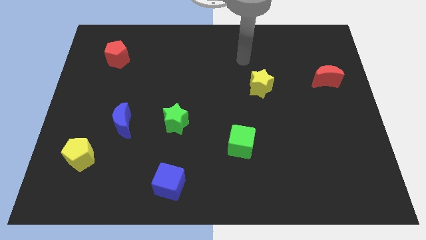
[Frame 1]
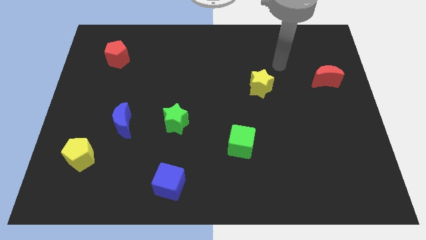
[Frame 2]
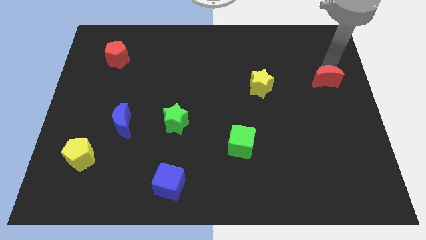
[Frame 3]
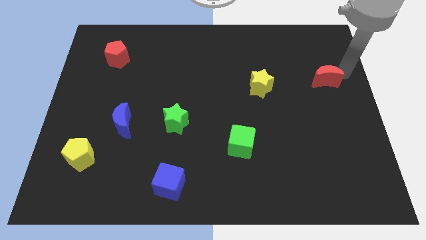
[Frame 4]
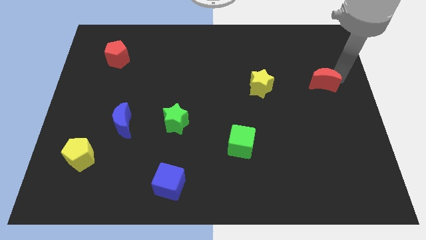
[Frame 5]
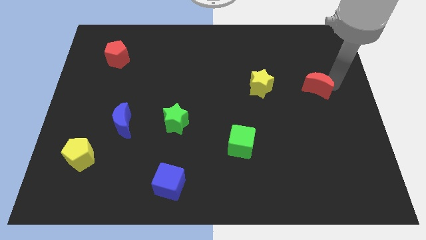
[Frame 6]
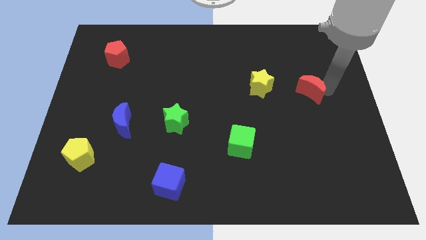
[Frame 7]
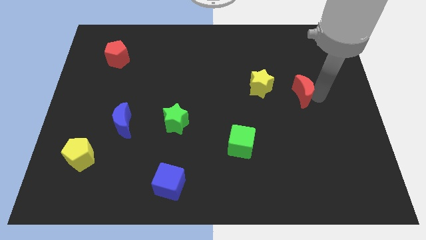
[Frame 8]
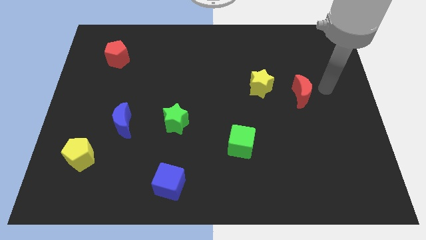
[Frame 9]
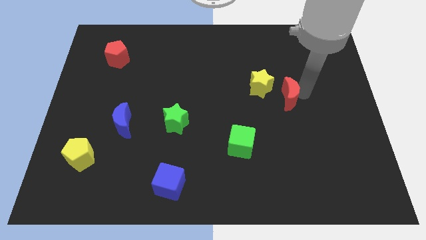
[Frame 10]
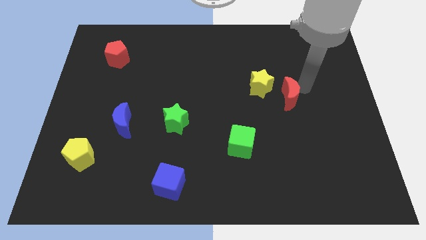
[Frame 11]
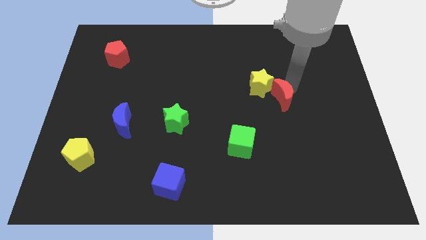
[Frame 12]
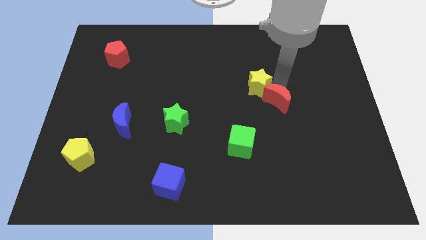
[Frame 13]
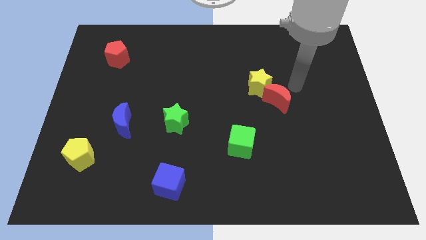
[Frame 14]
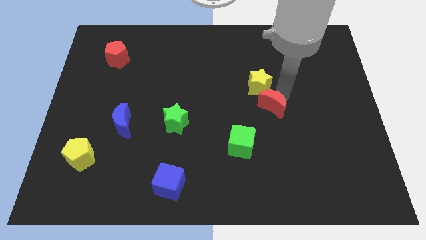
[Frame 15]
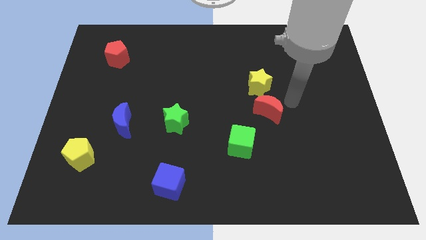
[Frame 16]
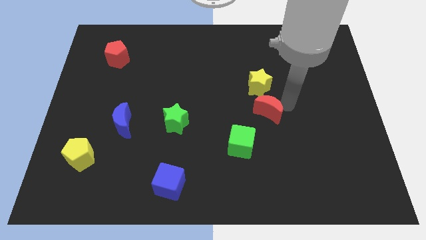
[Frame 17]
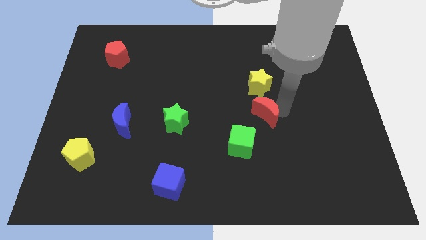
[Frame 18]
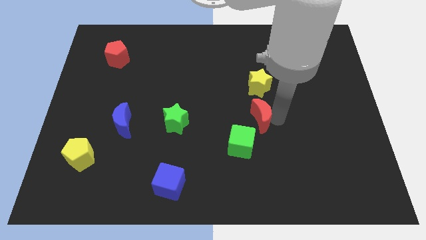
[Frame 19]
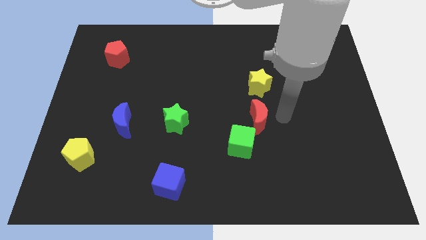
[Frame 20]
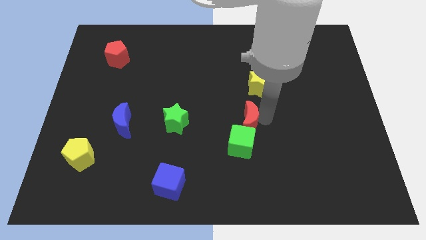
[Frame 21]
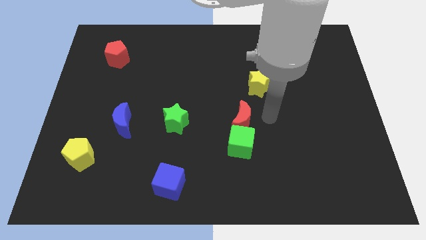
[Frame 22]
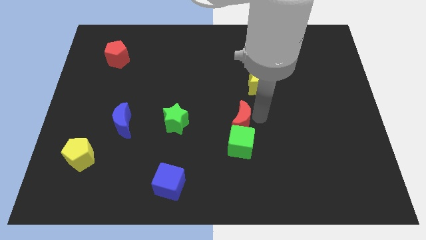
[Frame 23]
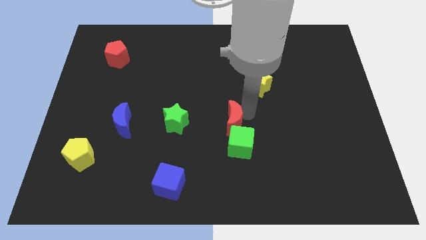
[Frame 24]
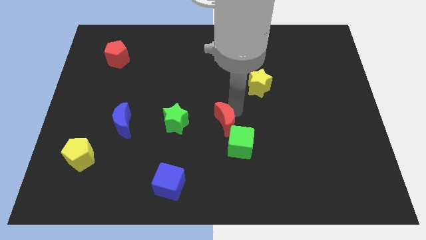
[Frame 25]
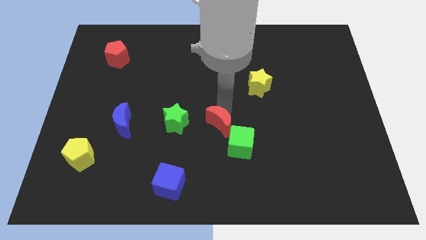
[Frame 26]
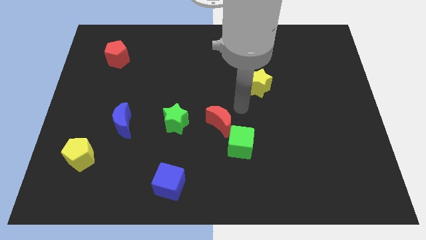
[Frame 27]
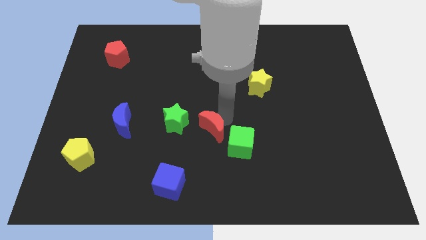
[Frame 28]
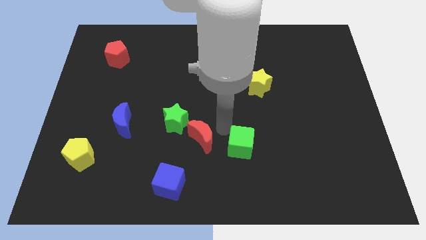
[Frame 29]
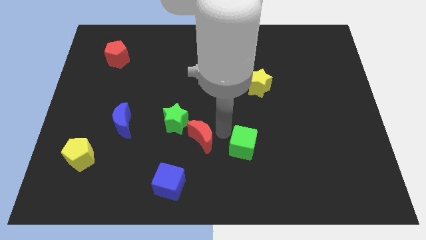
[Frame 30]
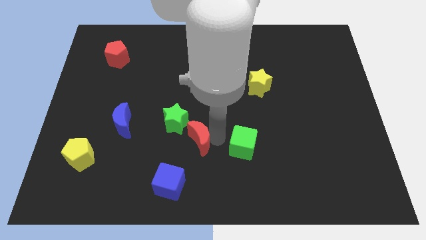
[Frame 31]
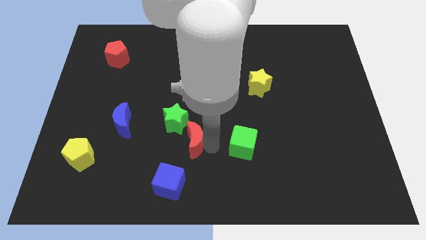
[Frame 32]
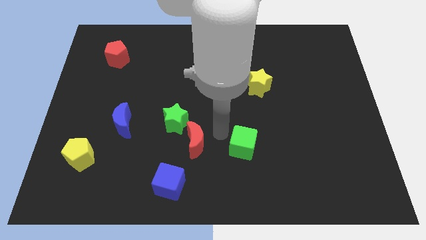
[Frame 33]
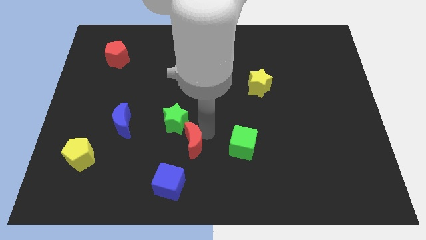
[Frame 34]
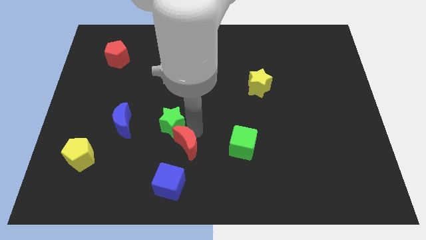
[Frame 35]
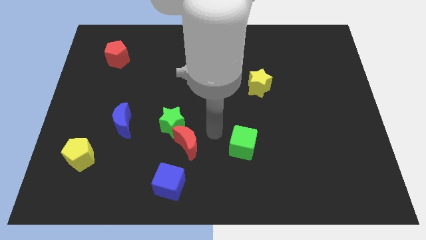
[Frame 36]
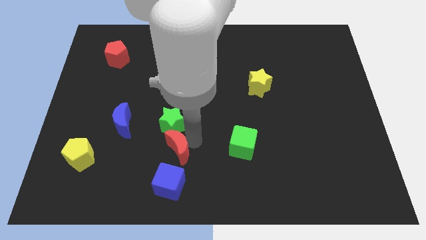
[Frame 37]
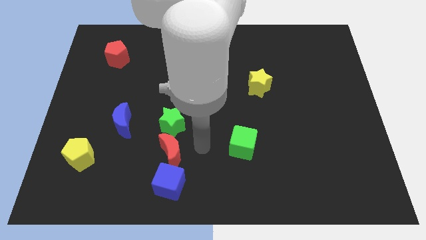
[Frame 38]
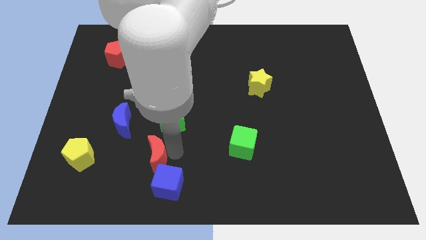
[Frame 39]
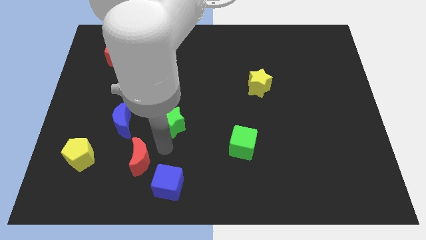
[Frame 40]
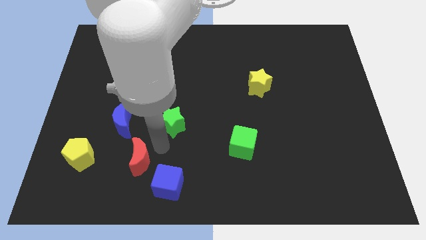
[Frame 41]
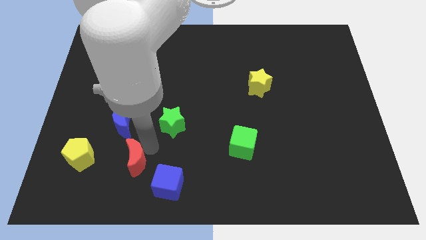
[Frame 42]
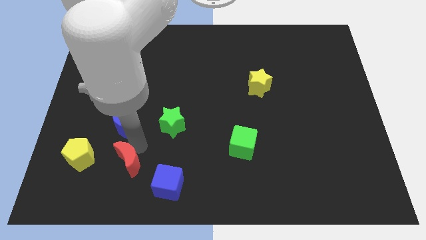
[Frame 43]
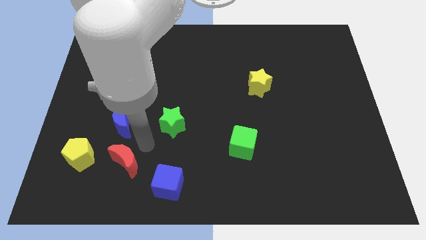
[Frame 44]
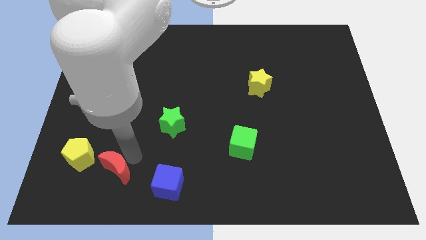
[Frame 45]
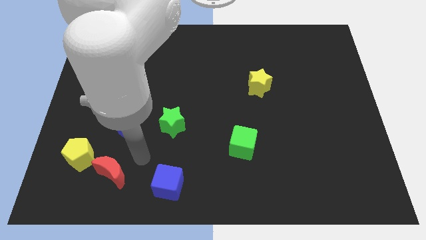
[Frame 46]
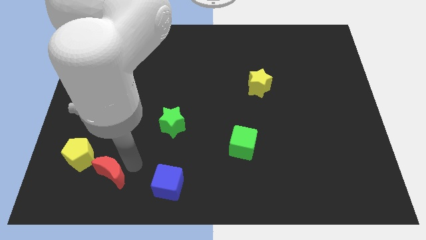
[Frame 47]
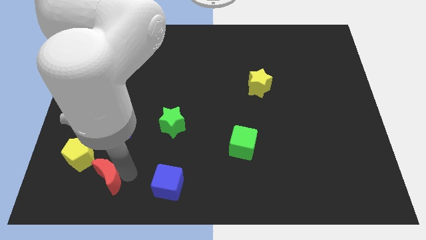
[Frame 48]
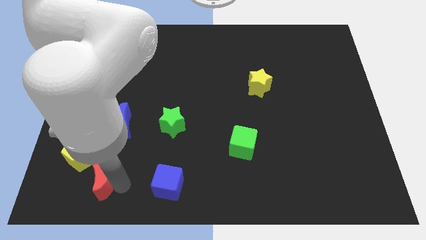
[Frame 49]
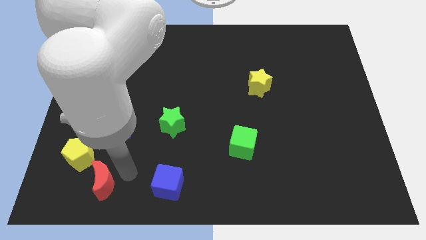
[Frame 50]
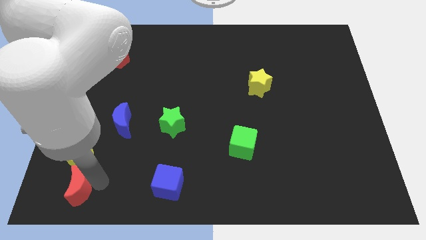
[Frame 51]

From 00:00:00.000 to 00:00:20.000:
move the red moon to the bottom left

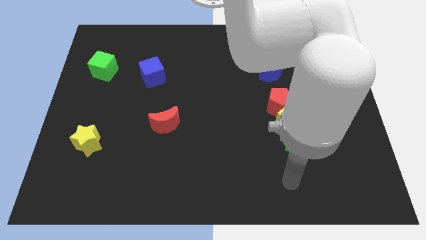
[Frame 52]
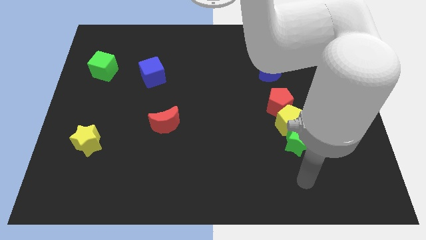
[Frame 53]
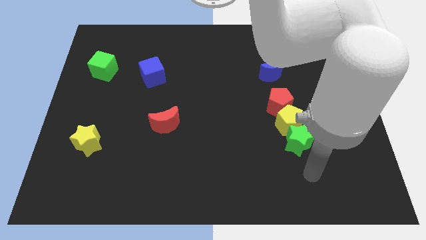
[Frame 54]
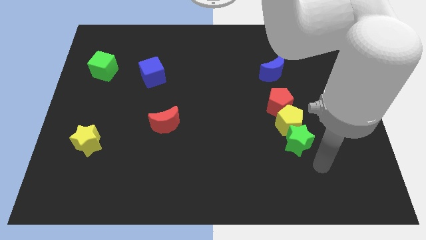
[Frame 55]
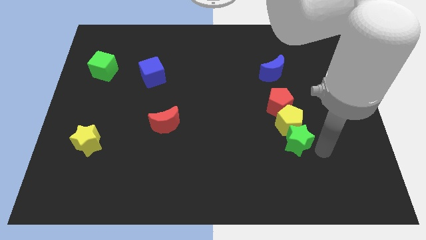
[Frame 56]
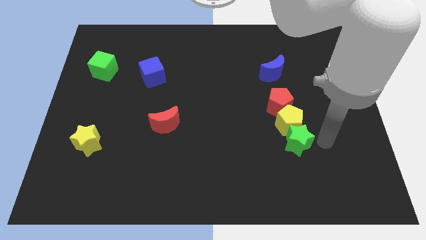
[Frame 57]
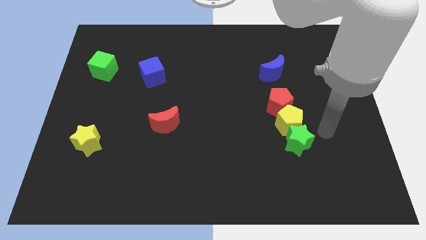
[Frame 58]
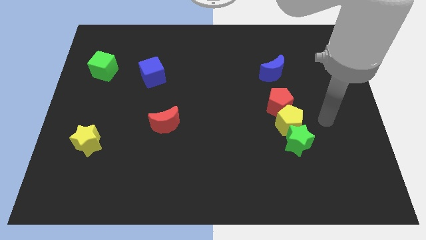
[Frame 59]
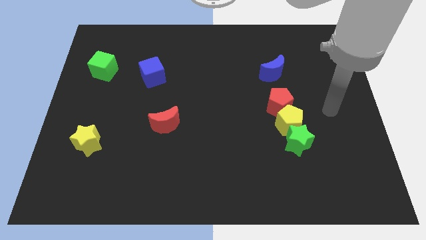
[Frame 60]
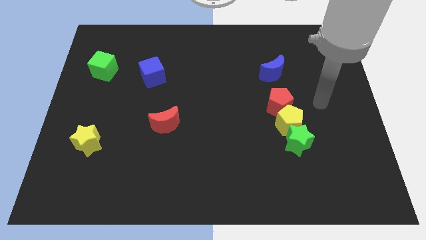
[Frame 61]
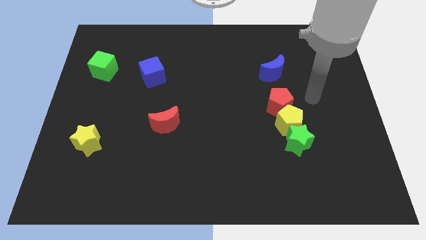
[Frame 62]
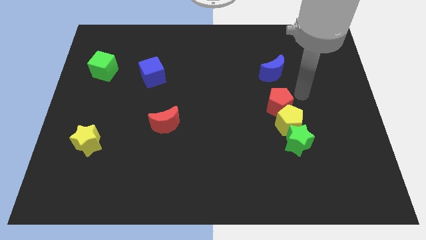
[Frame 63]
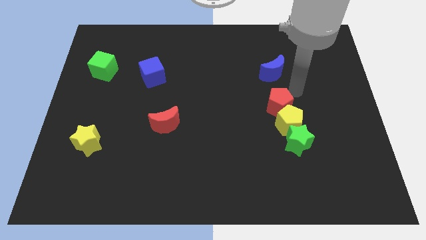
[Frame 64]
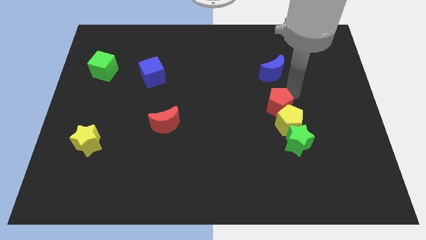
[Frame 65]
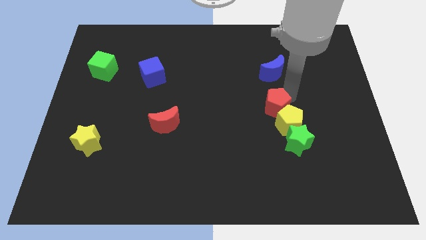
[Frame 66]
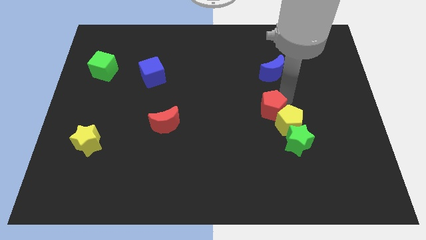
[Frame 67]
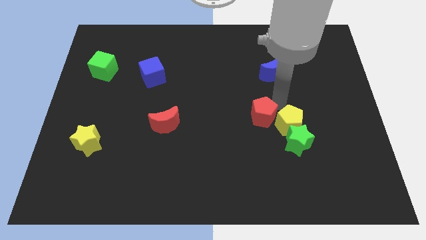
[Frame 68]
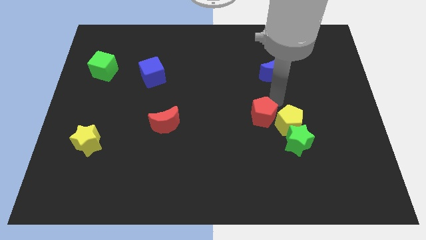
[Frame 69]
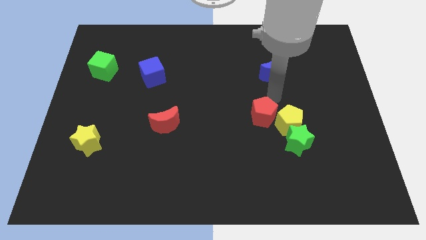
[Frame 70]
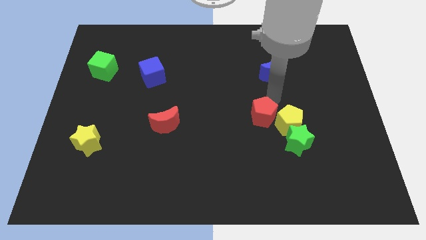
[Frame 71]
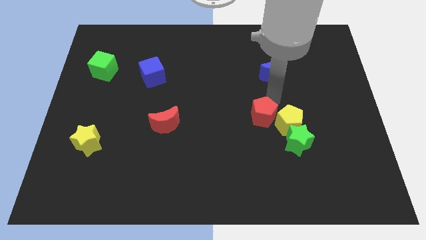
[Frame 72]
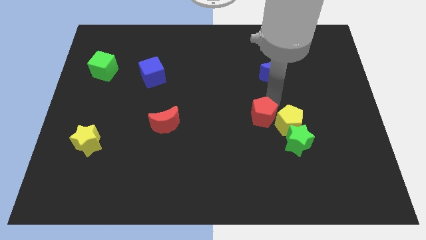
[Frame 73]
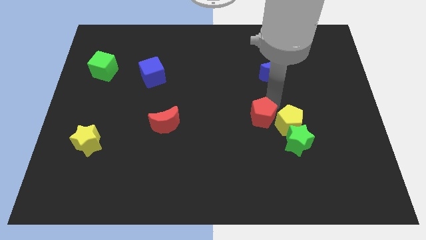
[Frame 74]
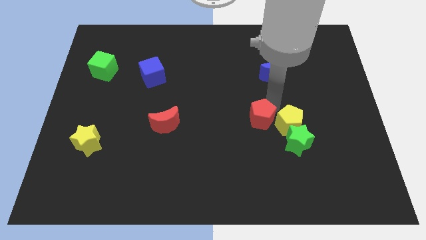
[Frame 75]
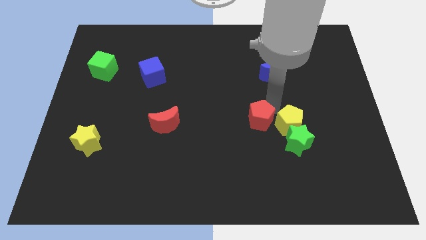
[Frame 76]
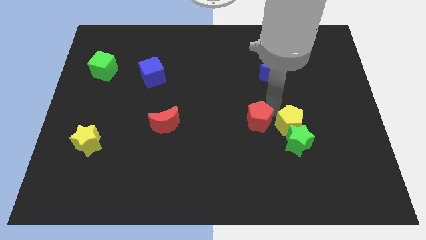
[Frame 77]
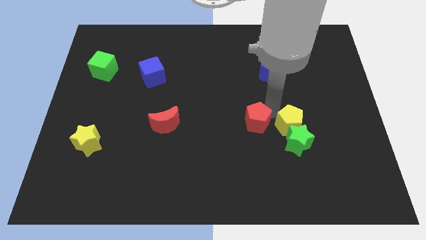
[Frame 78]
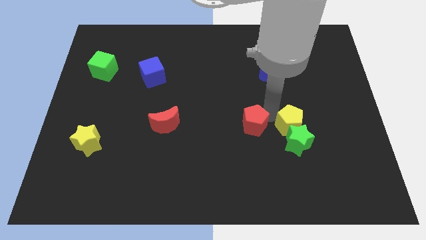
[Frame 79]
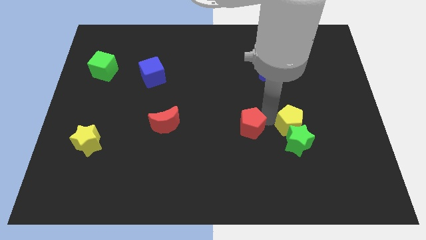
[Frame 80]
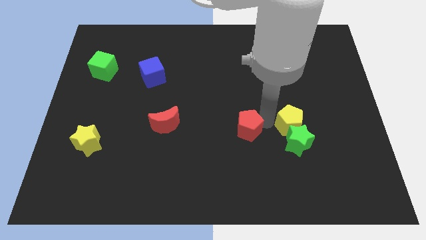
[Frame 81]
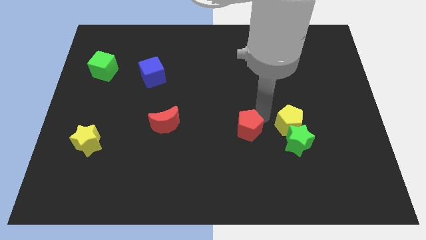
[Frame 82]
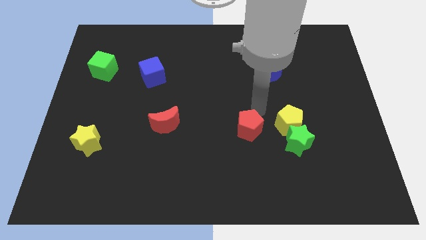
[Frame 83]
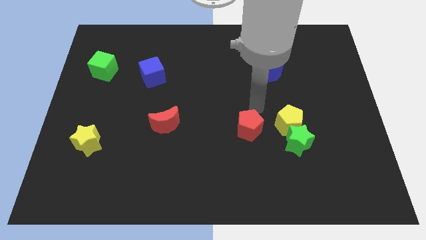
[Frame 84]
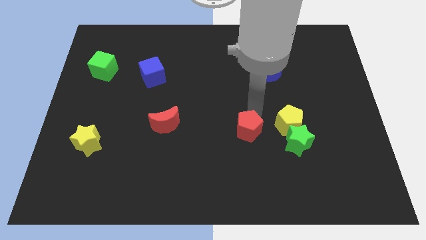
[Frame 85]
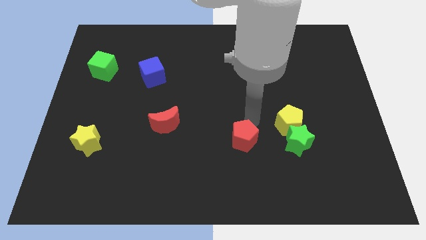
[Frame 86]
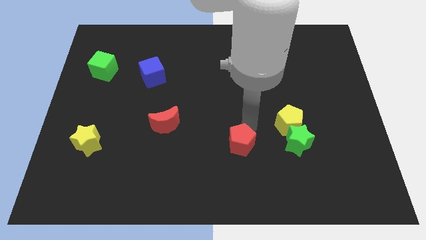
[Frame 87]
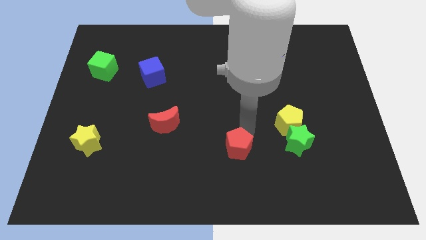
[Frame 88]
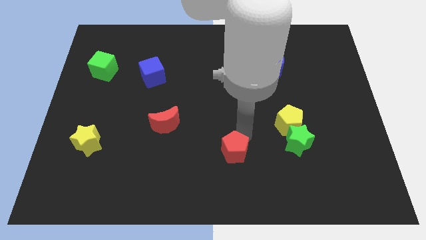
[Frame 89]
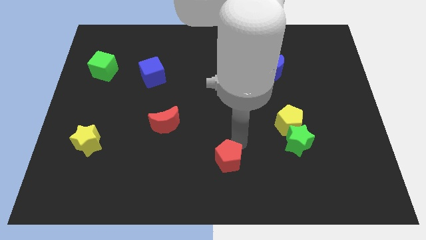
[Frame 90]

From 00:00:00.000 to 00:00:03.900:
slide the red pentagon to the bottom side
